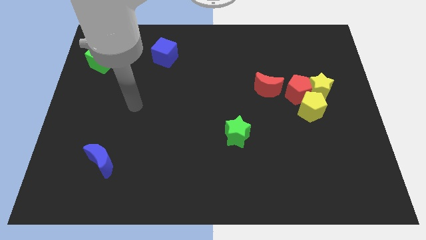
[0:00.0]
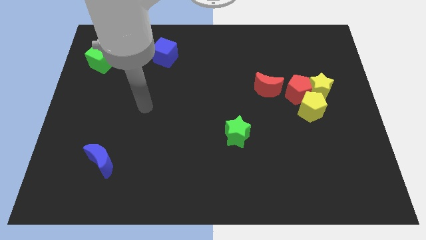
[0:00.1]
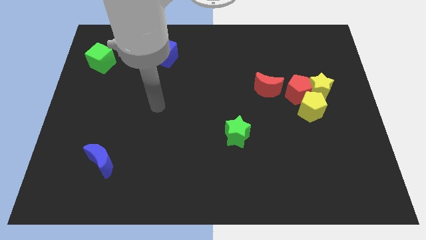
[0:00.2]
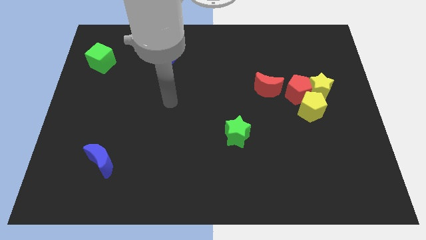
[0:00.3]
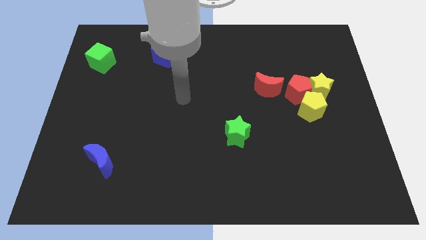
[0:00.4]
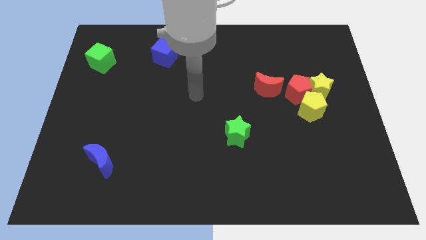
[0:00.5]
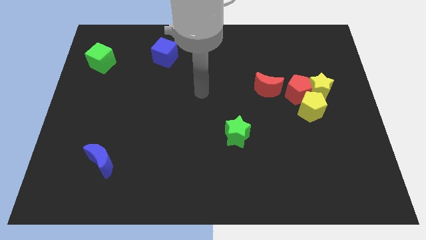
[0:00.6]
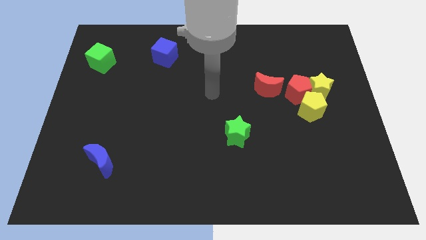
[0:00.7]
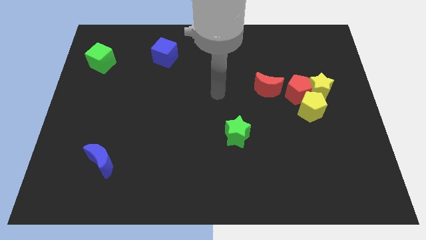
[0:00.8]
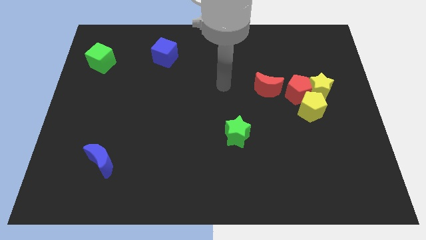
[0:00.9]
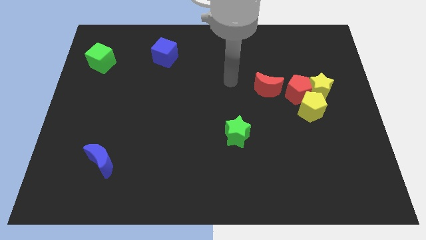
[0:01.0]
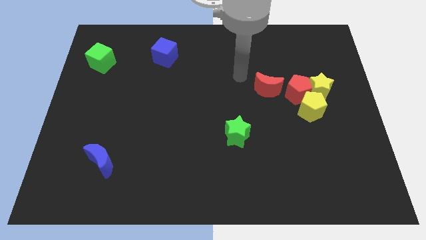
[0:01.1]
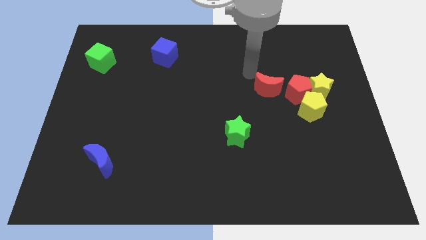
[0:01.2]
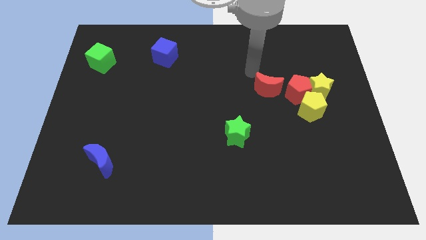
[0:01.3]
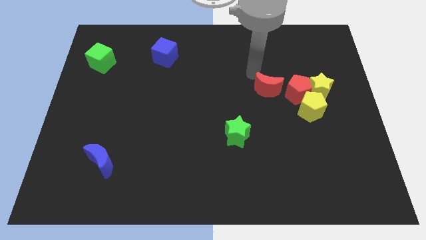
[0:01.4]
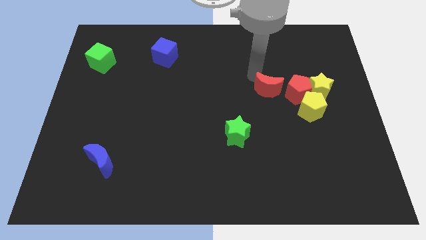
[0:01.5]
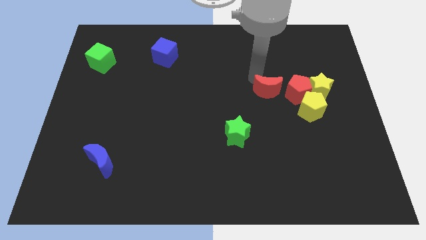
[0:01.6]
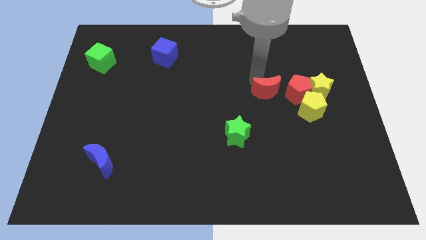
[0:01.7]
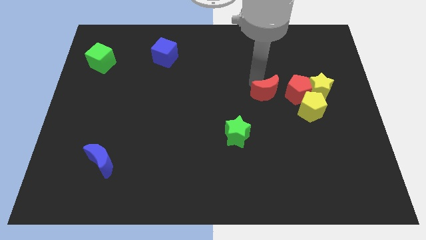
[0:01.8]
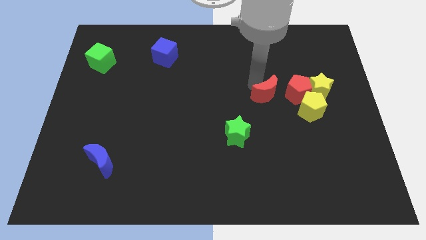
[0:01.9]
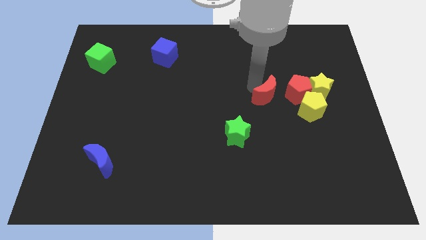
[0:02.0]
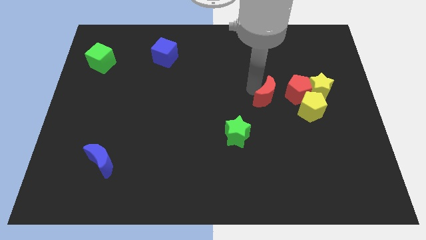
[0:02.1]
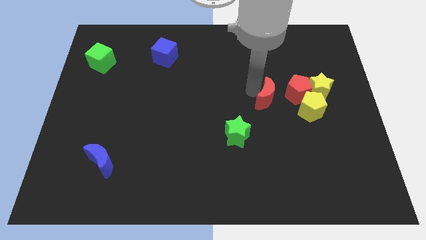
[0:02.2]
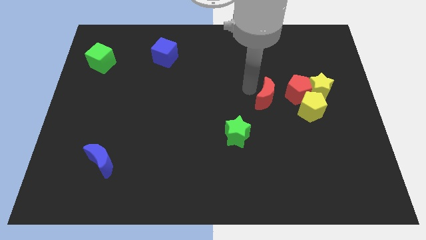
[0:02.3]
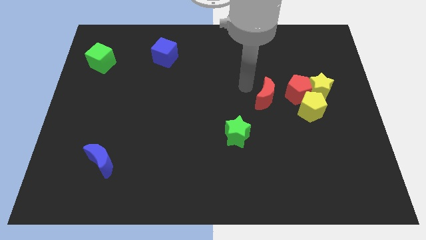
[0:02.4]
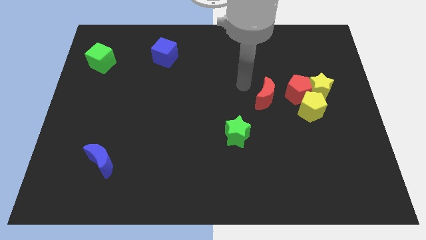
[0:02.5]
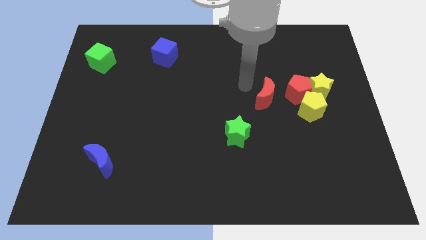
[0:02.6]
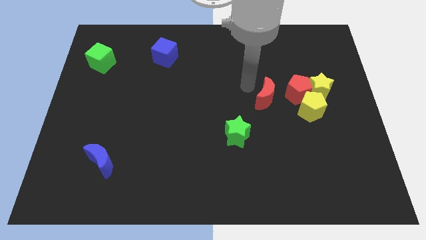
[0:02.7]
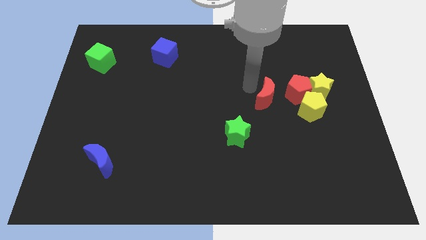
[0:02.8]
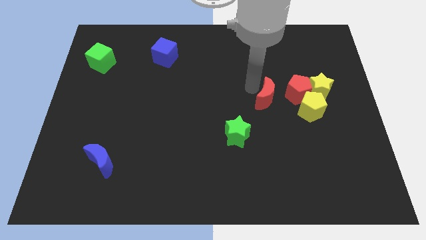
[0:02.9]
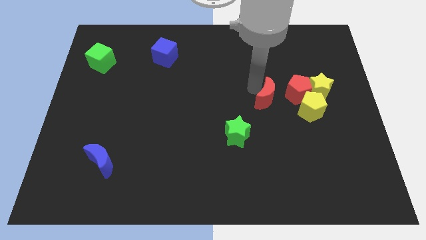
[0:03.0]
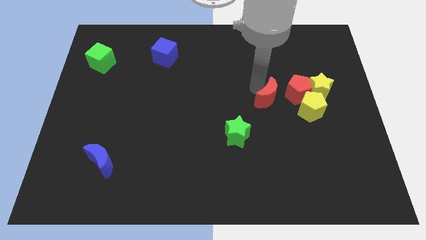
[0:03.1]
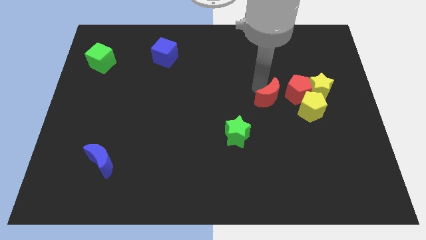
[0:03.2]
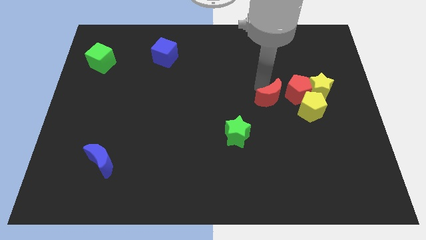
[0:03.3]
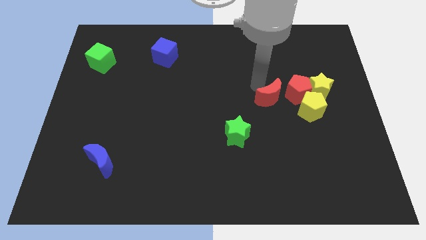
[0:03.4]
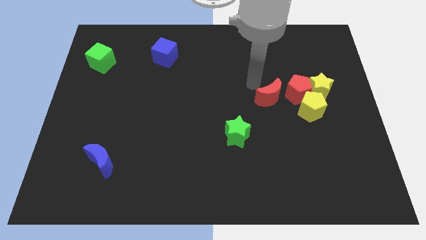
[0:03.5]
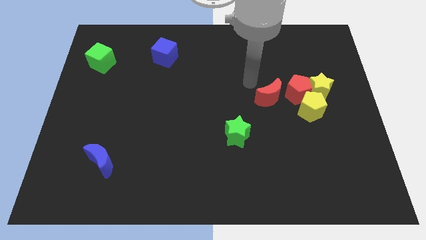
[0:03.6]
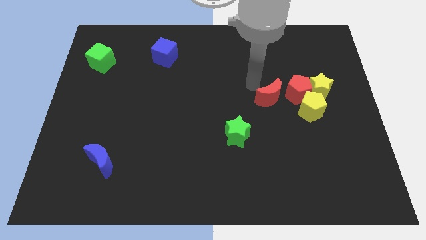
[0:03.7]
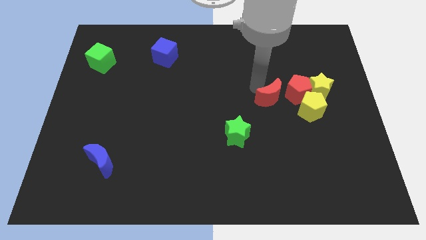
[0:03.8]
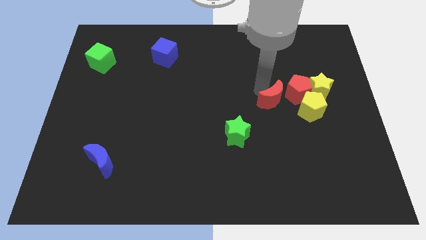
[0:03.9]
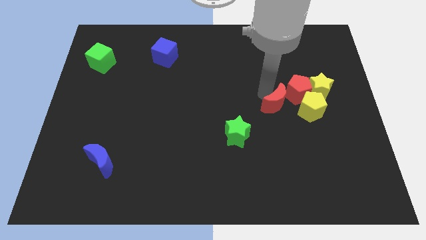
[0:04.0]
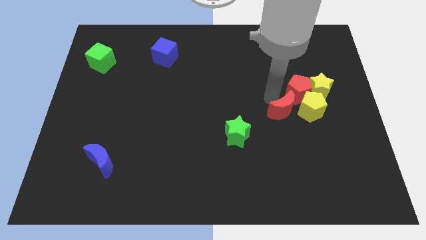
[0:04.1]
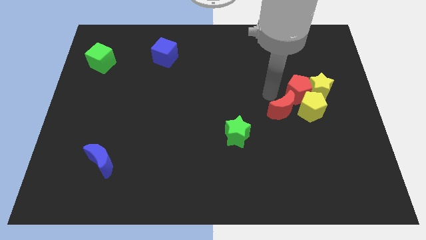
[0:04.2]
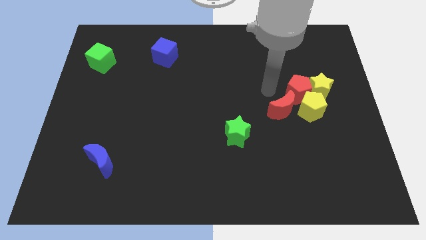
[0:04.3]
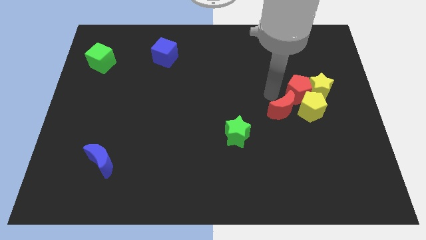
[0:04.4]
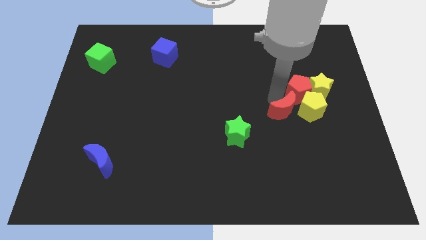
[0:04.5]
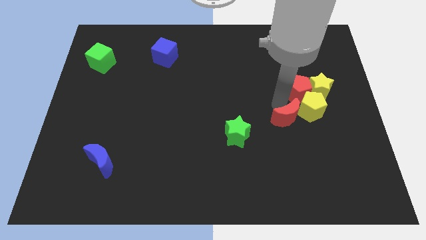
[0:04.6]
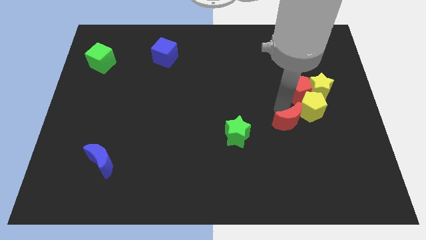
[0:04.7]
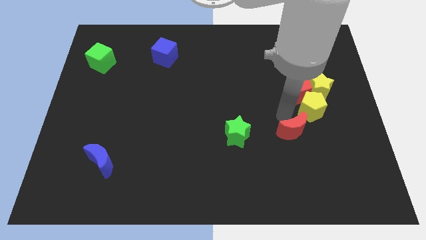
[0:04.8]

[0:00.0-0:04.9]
put the red moon to the bottom side of the yellow pentagon

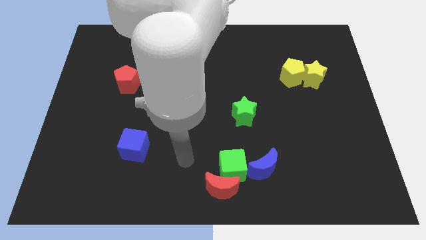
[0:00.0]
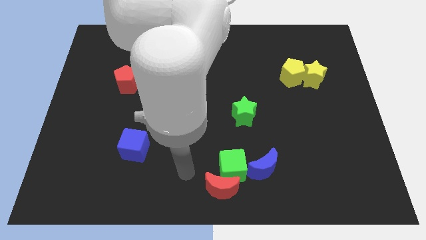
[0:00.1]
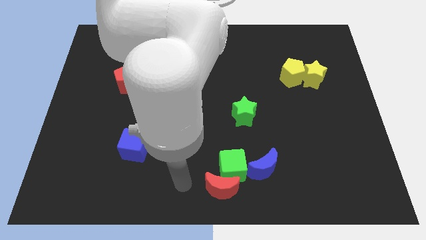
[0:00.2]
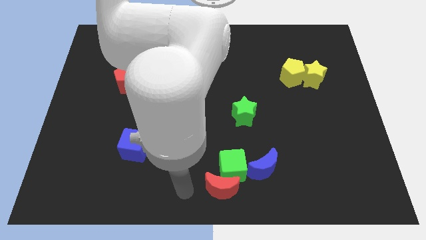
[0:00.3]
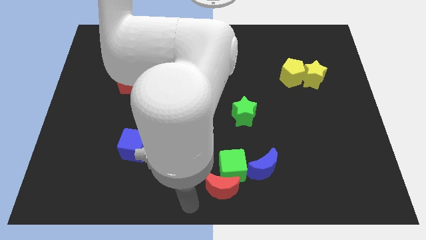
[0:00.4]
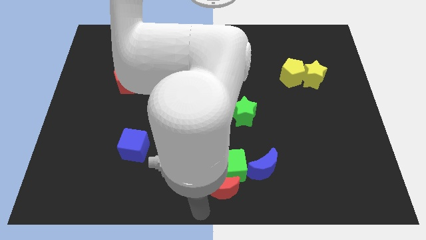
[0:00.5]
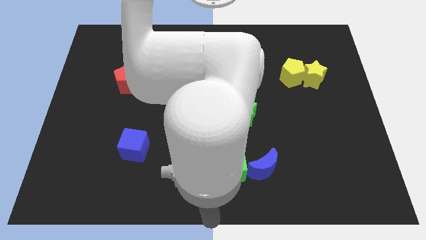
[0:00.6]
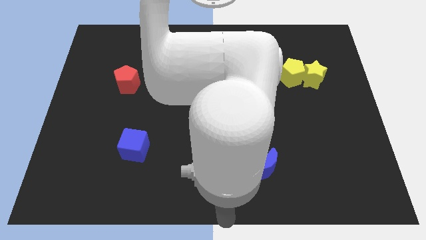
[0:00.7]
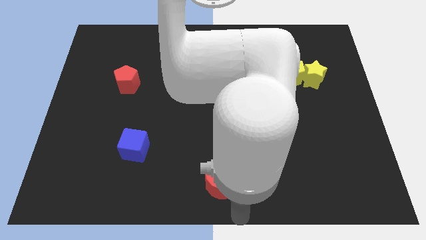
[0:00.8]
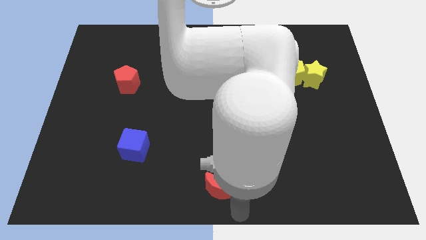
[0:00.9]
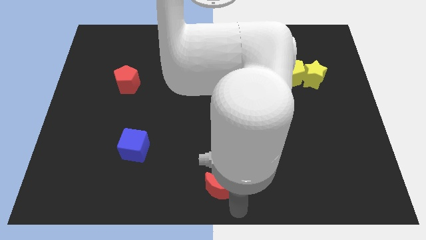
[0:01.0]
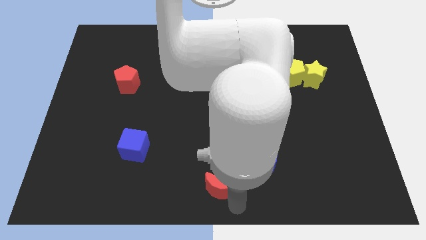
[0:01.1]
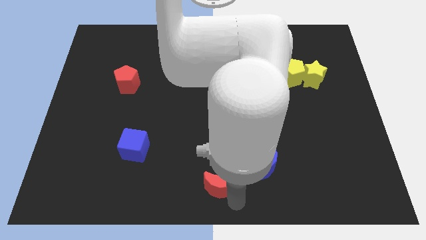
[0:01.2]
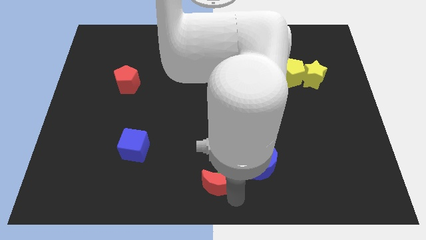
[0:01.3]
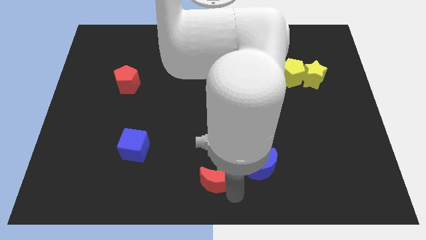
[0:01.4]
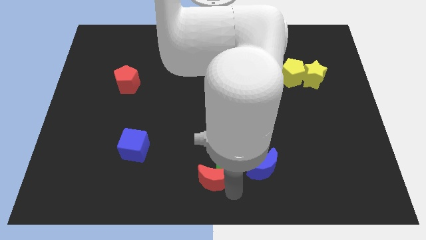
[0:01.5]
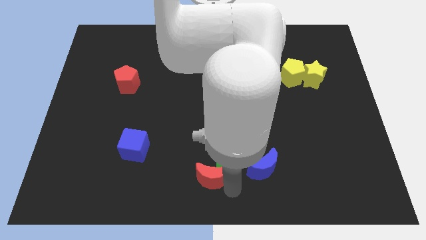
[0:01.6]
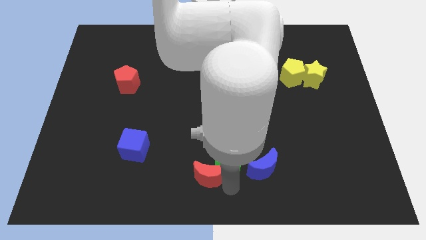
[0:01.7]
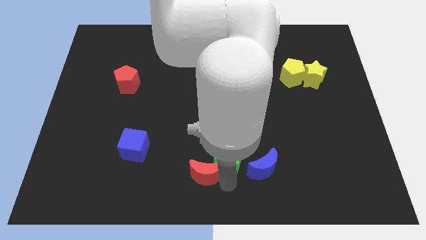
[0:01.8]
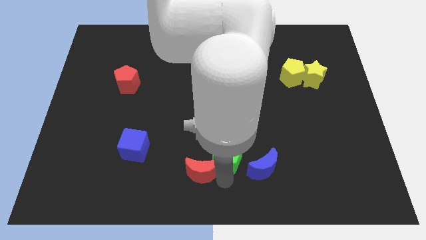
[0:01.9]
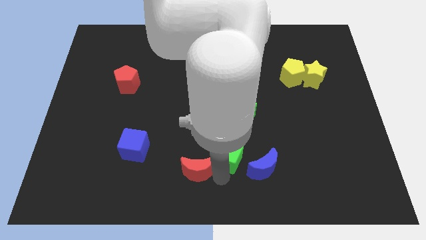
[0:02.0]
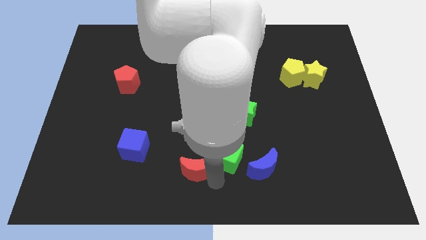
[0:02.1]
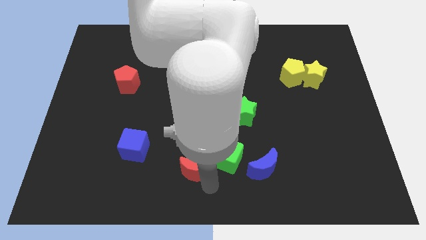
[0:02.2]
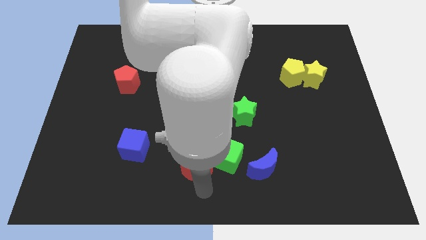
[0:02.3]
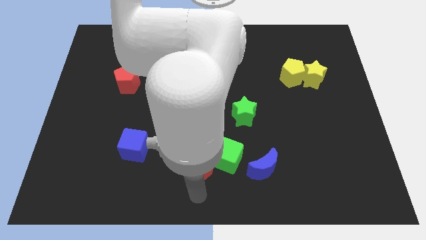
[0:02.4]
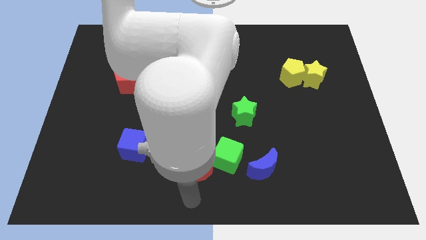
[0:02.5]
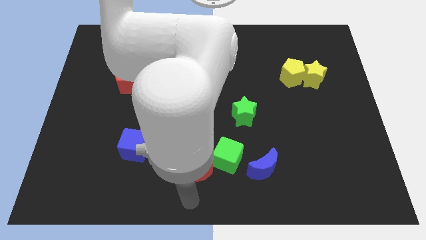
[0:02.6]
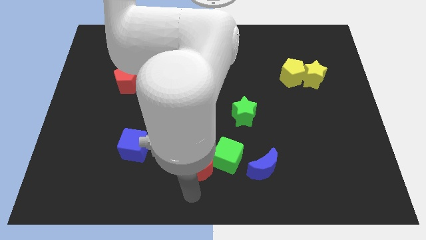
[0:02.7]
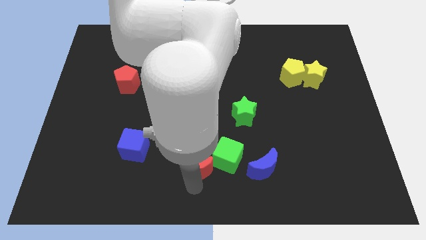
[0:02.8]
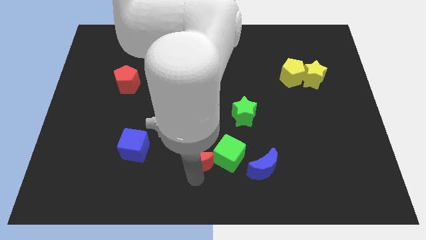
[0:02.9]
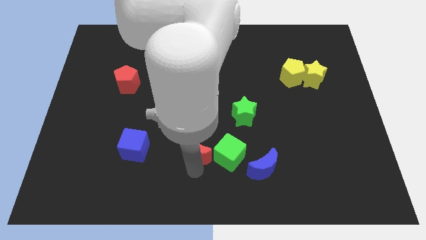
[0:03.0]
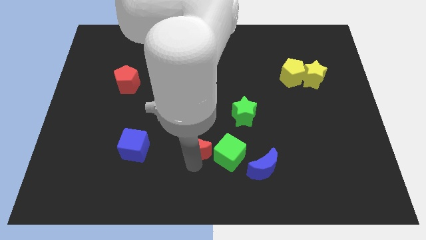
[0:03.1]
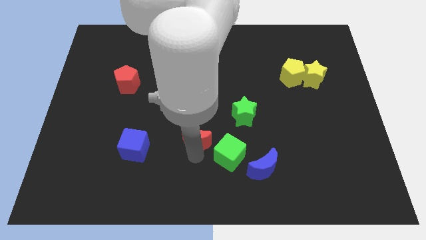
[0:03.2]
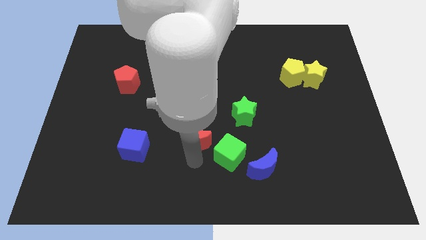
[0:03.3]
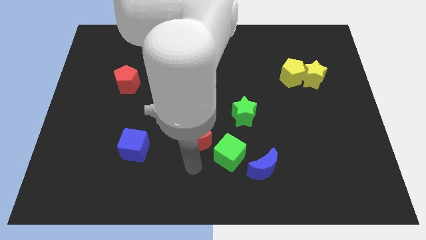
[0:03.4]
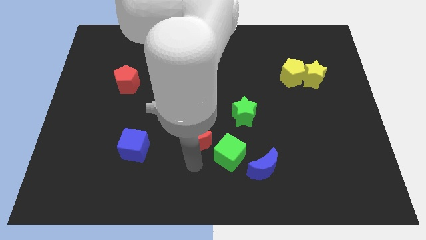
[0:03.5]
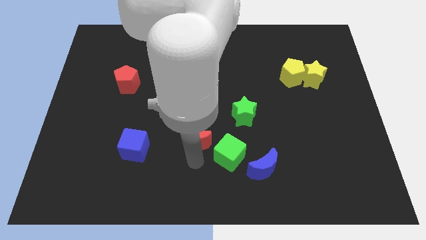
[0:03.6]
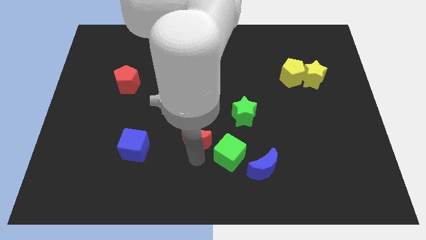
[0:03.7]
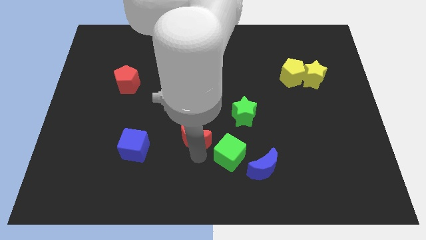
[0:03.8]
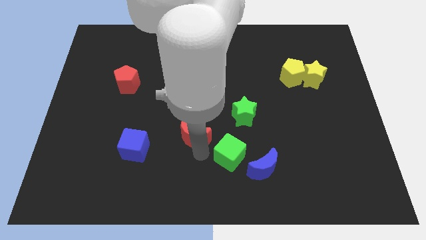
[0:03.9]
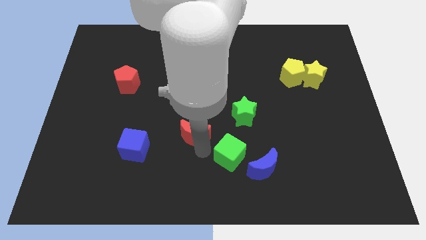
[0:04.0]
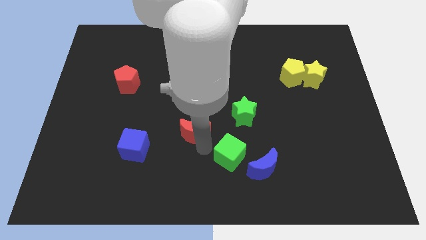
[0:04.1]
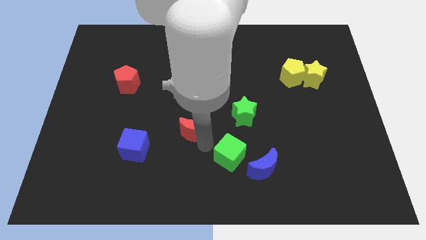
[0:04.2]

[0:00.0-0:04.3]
slide the red moon to the left side of the green star
